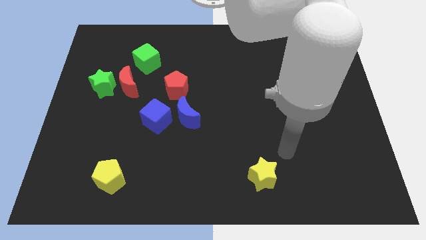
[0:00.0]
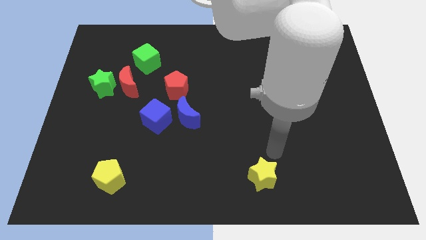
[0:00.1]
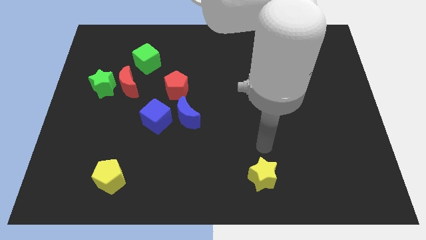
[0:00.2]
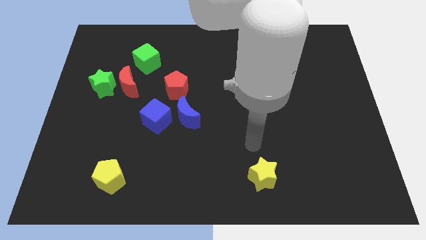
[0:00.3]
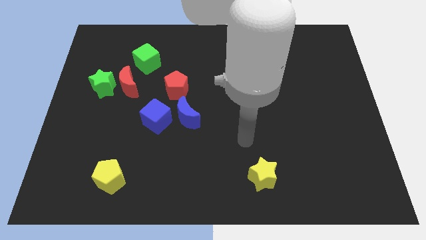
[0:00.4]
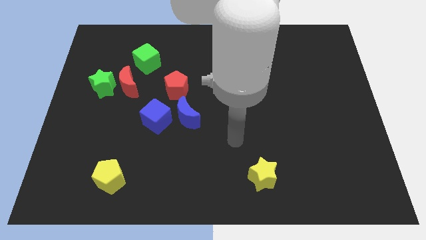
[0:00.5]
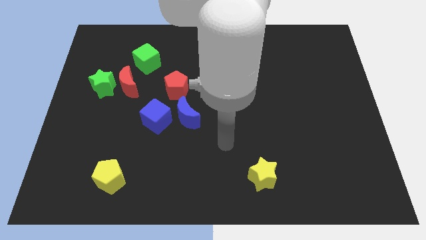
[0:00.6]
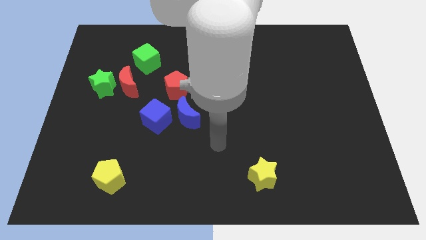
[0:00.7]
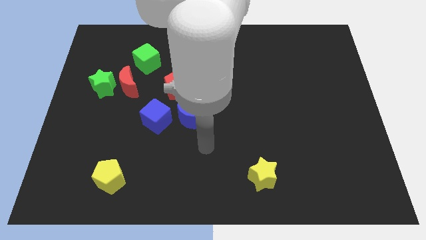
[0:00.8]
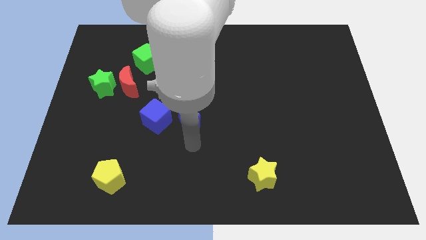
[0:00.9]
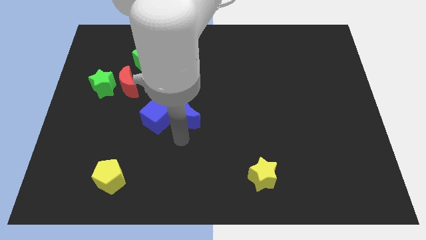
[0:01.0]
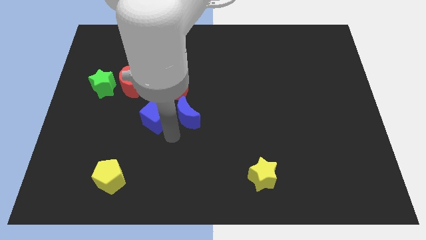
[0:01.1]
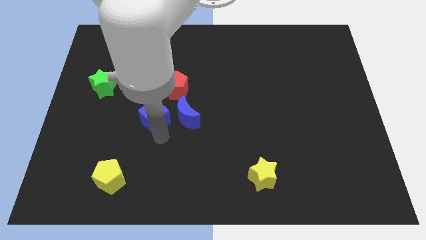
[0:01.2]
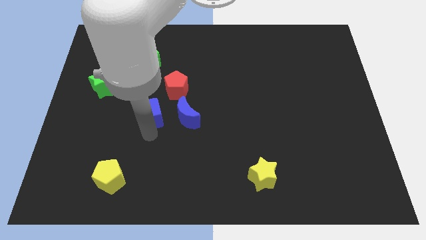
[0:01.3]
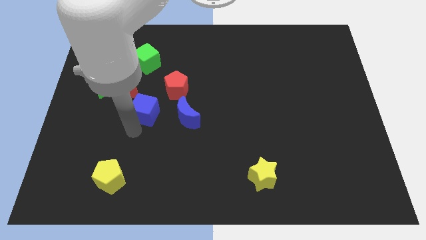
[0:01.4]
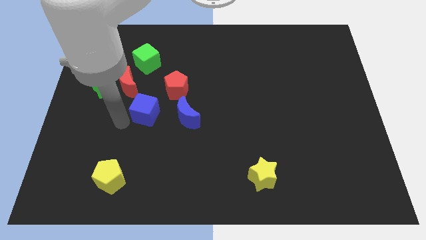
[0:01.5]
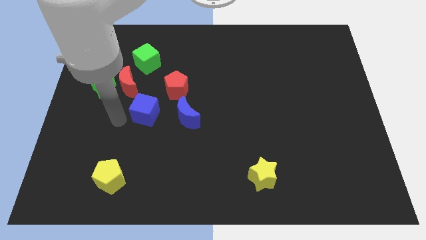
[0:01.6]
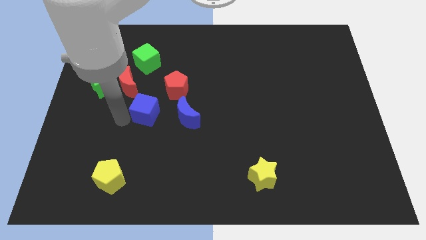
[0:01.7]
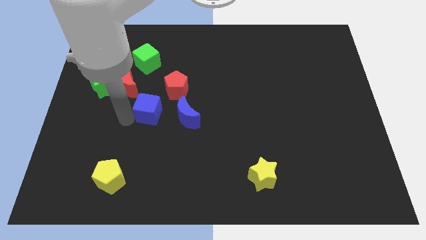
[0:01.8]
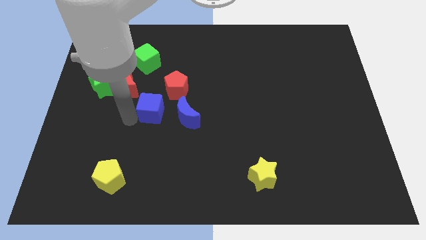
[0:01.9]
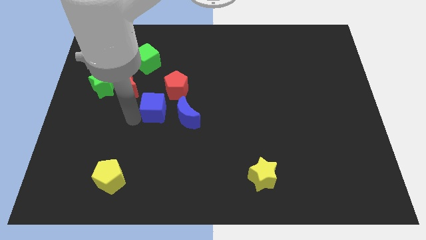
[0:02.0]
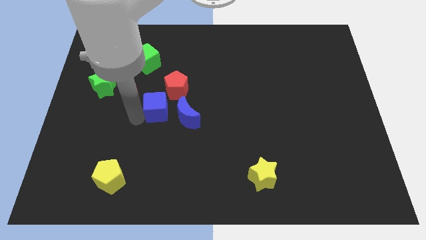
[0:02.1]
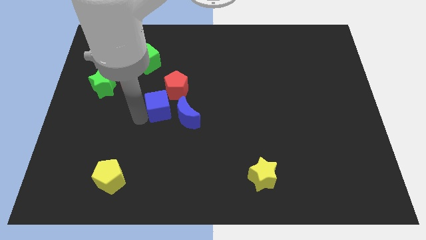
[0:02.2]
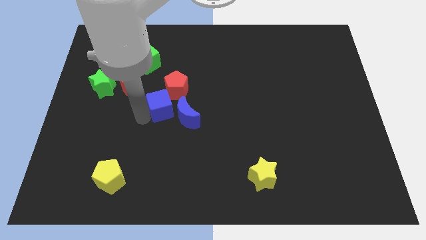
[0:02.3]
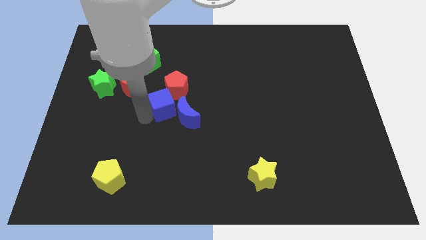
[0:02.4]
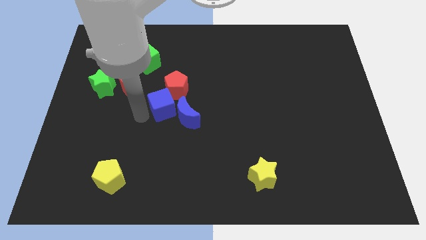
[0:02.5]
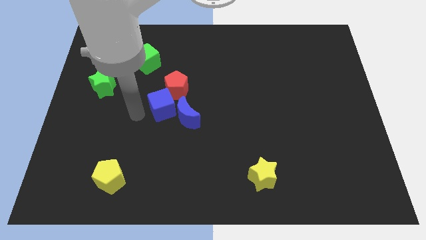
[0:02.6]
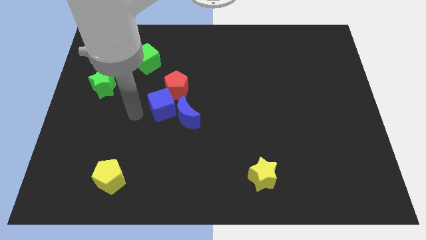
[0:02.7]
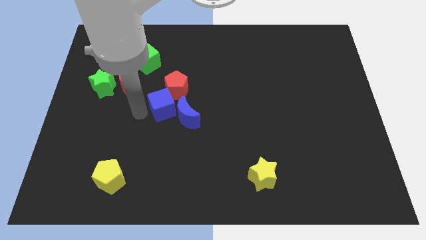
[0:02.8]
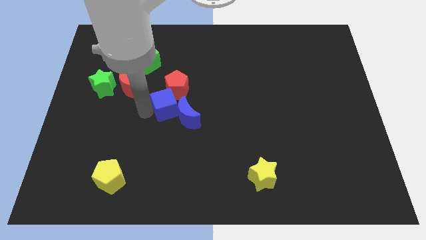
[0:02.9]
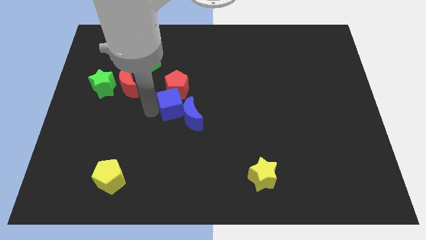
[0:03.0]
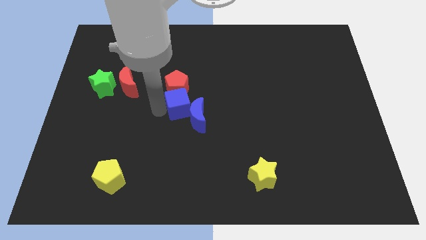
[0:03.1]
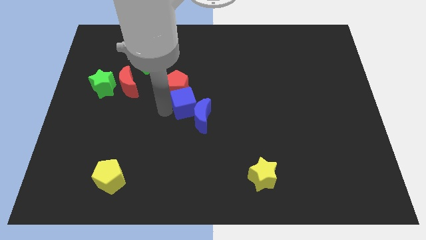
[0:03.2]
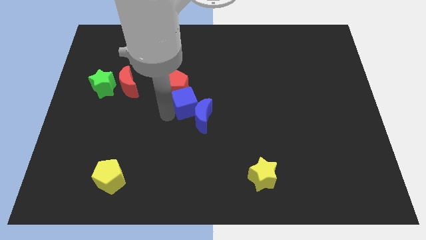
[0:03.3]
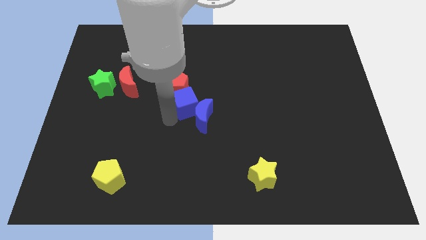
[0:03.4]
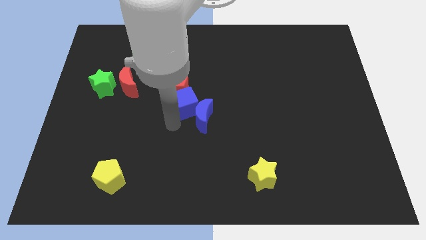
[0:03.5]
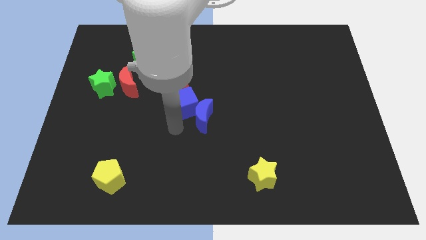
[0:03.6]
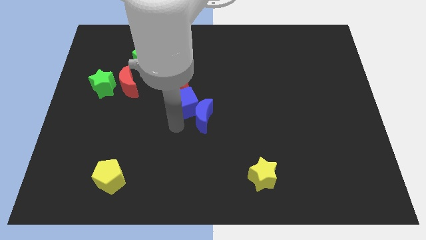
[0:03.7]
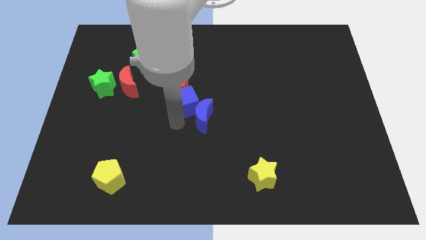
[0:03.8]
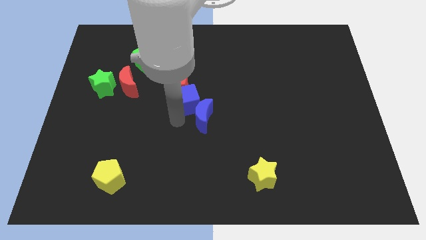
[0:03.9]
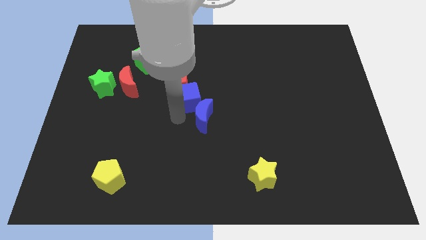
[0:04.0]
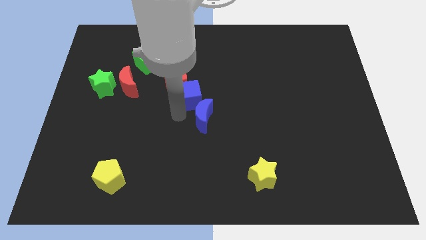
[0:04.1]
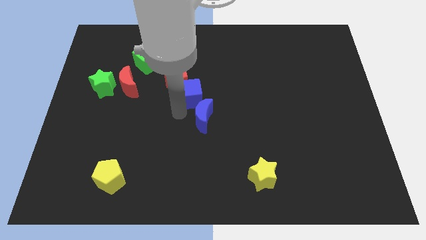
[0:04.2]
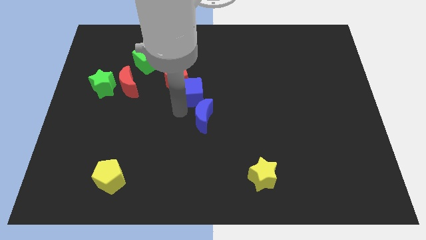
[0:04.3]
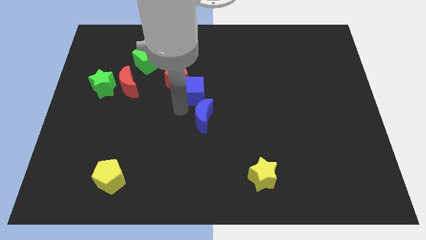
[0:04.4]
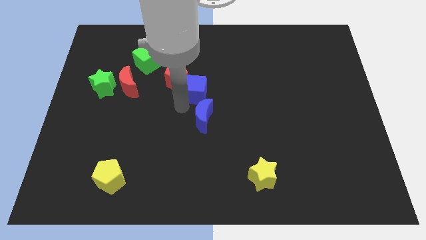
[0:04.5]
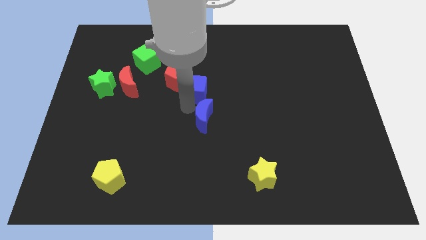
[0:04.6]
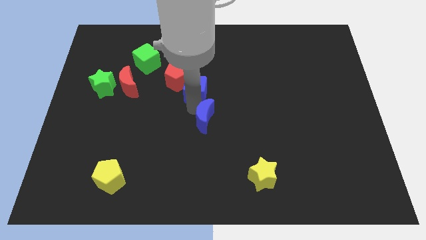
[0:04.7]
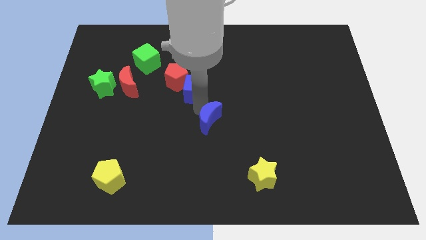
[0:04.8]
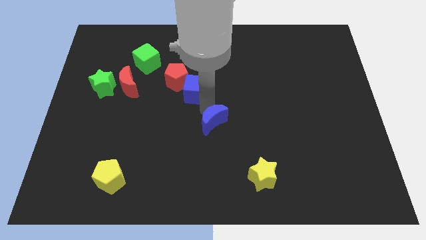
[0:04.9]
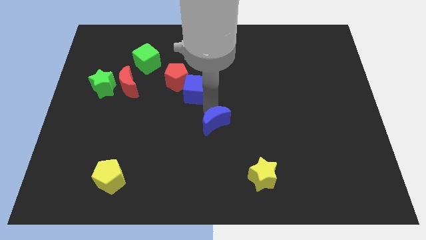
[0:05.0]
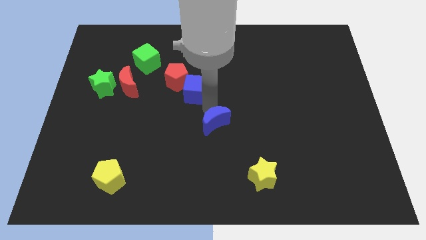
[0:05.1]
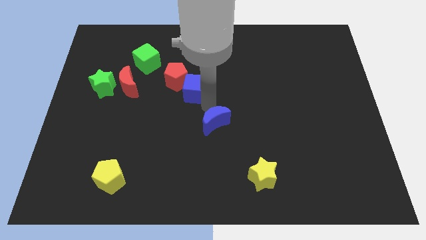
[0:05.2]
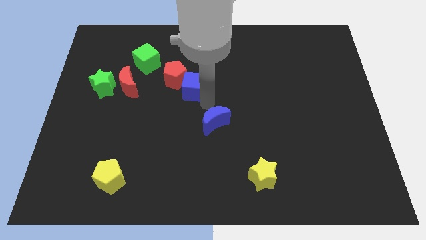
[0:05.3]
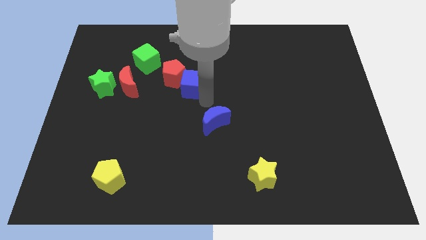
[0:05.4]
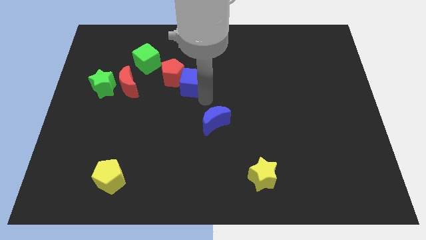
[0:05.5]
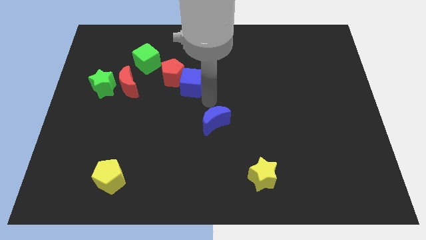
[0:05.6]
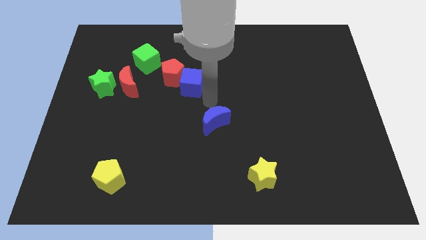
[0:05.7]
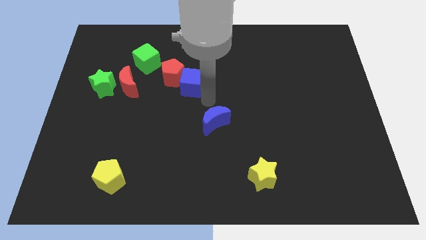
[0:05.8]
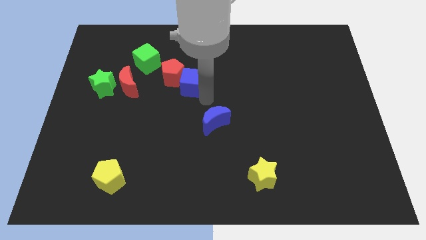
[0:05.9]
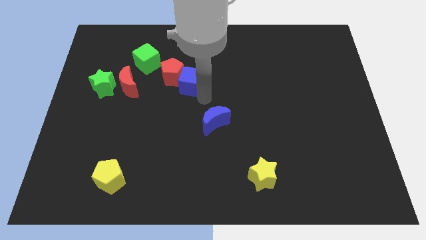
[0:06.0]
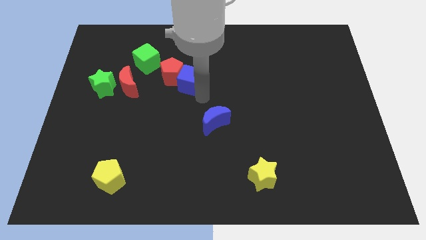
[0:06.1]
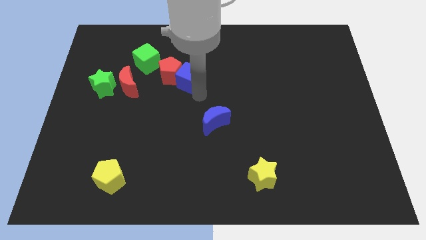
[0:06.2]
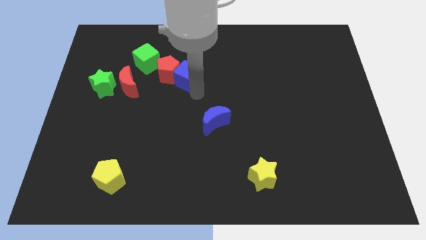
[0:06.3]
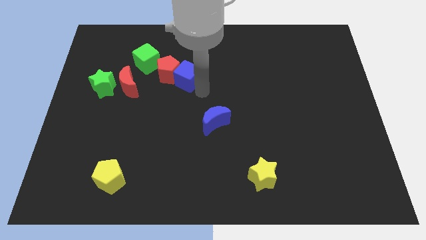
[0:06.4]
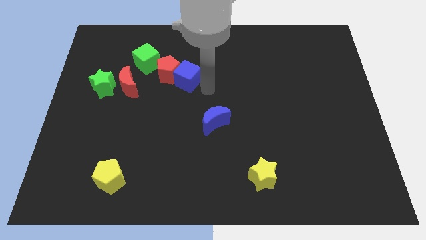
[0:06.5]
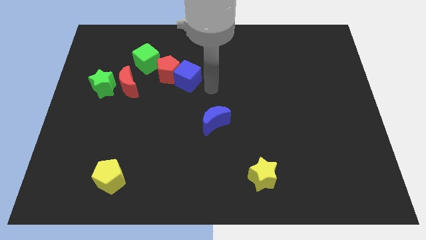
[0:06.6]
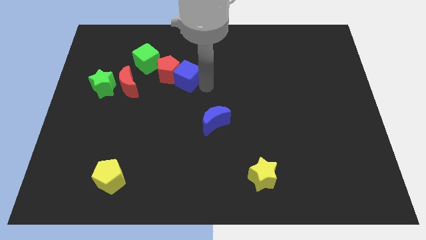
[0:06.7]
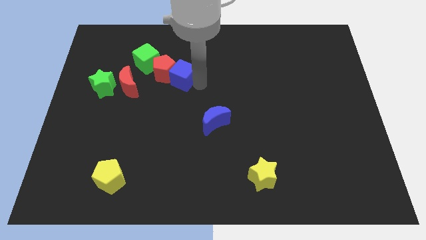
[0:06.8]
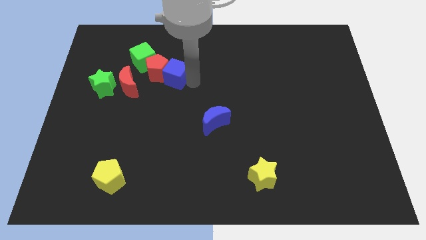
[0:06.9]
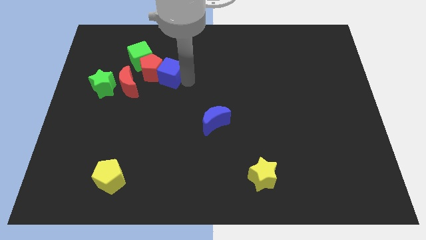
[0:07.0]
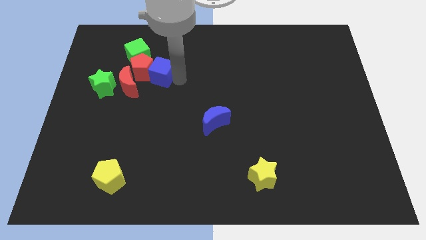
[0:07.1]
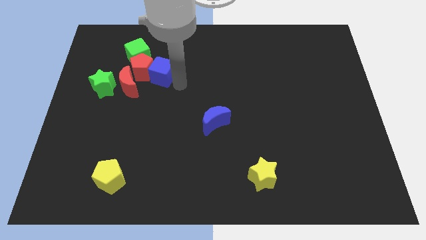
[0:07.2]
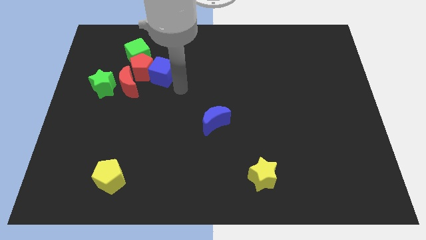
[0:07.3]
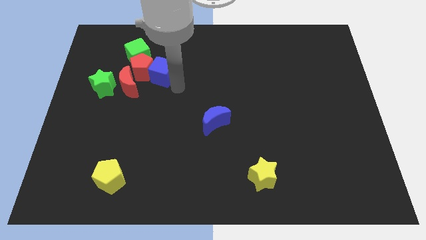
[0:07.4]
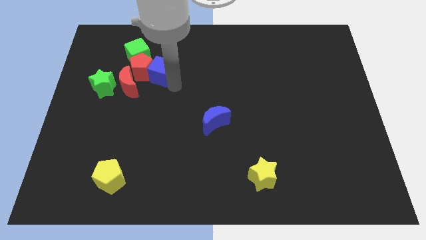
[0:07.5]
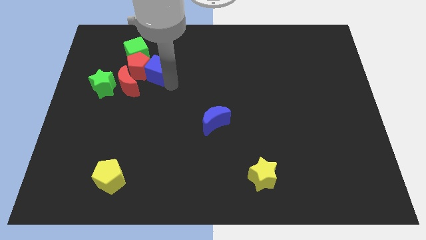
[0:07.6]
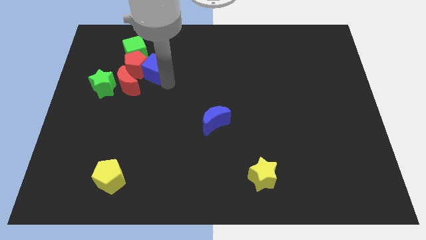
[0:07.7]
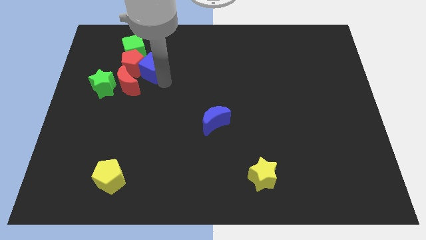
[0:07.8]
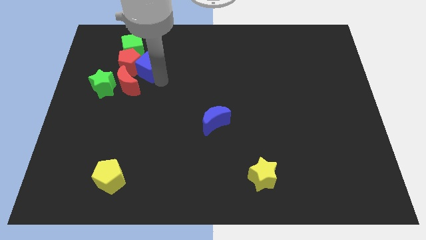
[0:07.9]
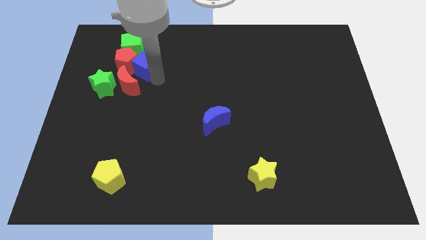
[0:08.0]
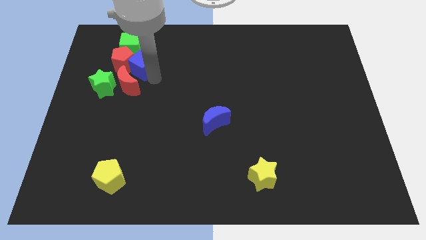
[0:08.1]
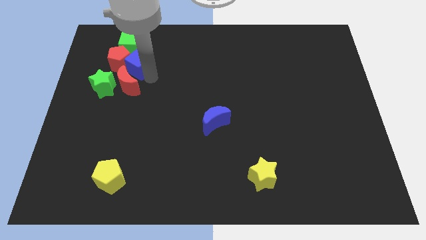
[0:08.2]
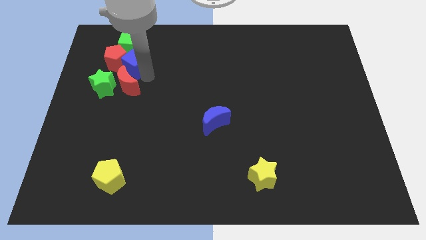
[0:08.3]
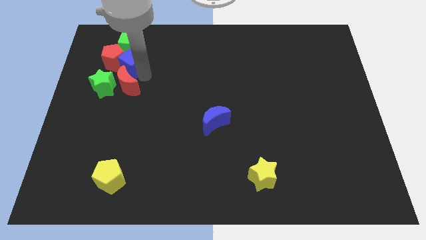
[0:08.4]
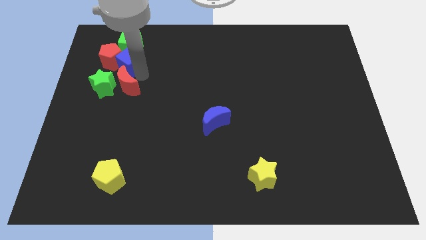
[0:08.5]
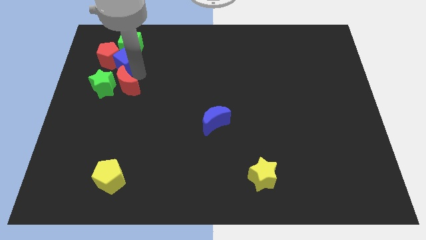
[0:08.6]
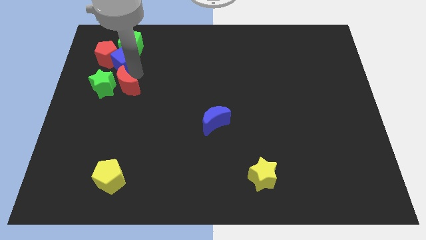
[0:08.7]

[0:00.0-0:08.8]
move the blue cube next to the green cube
